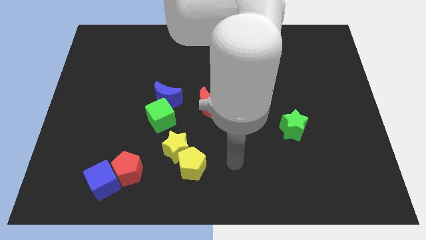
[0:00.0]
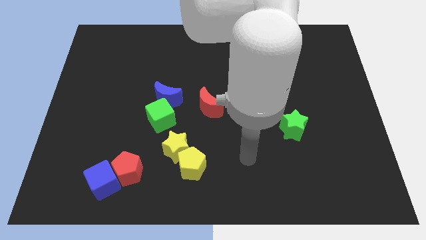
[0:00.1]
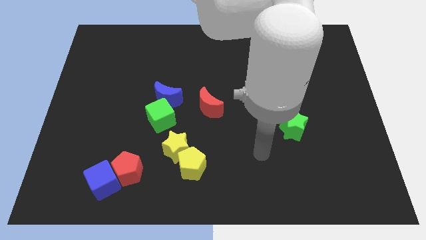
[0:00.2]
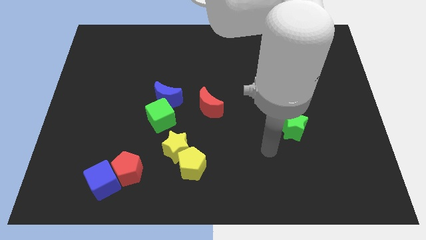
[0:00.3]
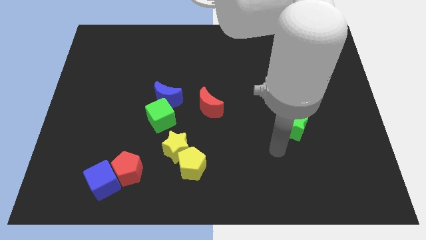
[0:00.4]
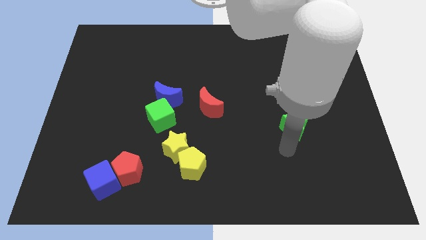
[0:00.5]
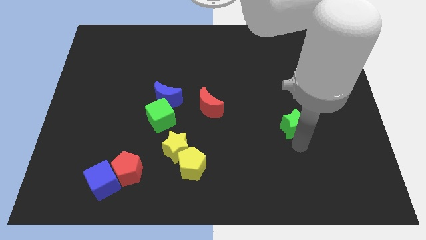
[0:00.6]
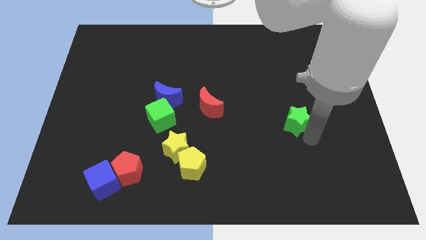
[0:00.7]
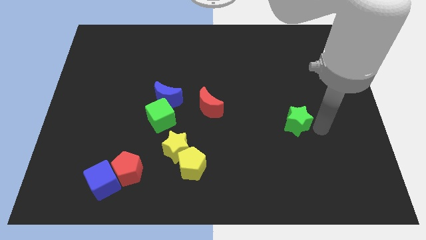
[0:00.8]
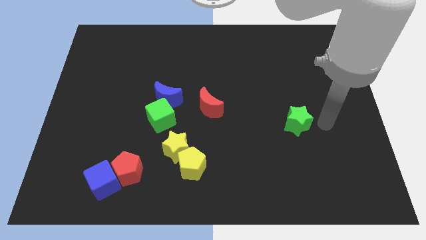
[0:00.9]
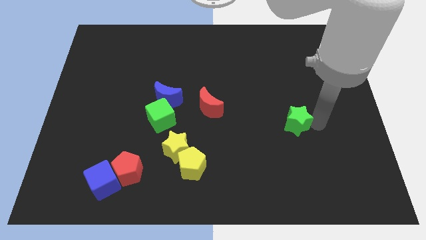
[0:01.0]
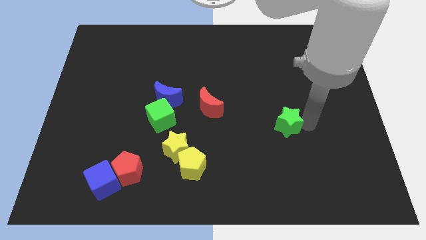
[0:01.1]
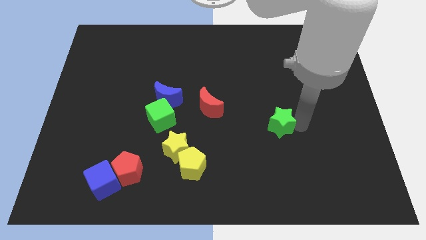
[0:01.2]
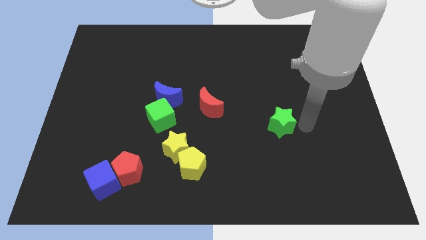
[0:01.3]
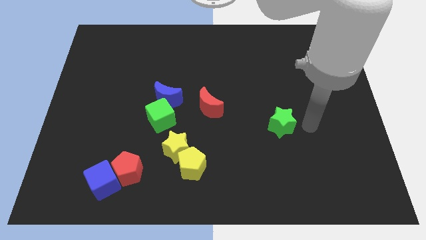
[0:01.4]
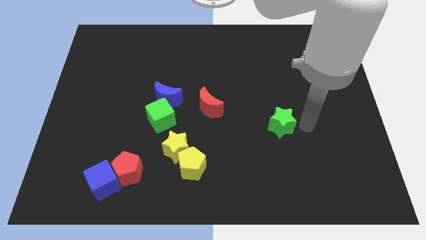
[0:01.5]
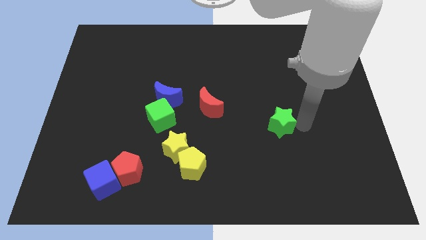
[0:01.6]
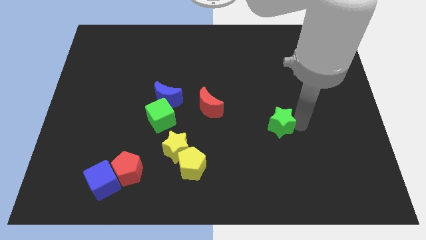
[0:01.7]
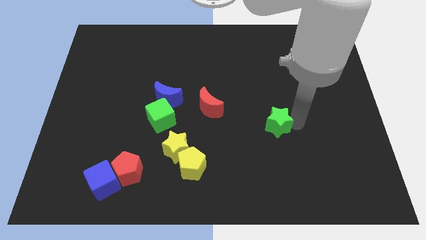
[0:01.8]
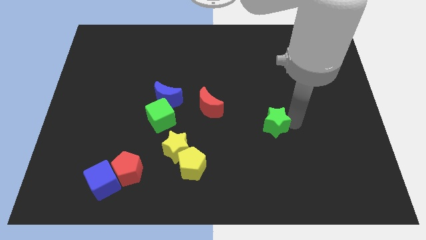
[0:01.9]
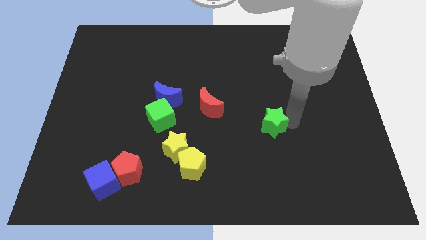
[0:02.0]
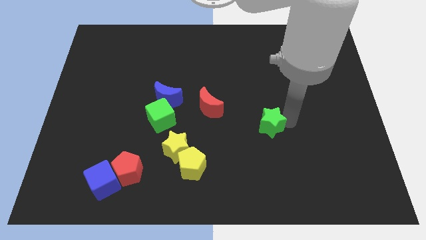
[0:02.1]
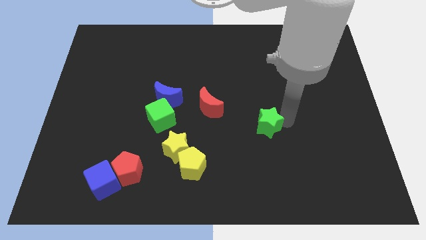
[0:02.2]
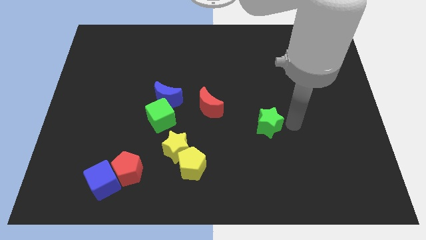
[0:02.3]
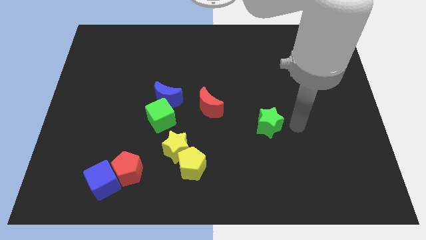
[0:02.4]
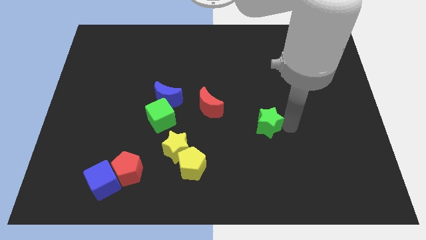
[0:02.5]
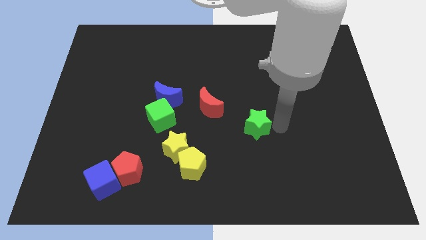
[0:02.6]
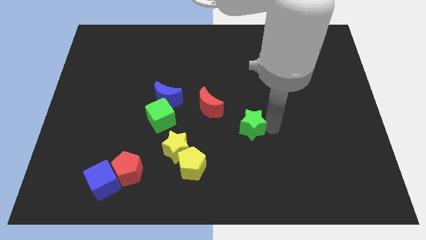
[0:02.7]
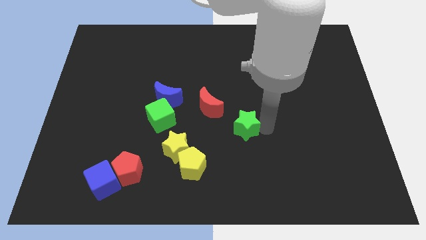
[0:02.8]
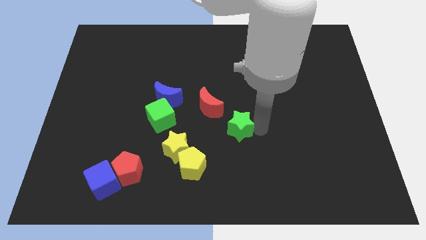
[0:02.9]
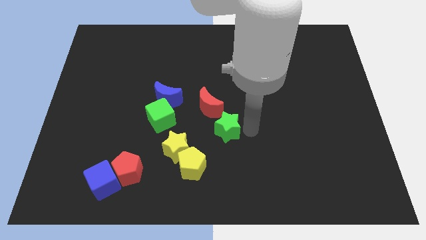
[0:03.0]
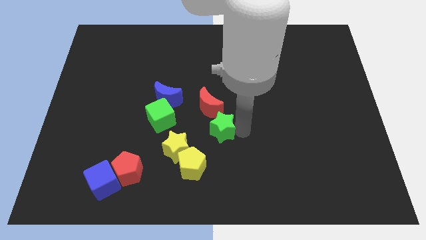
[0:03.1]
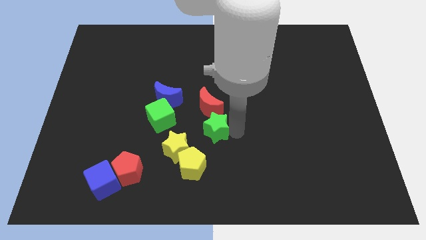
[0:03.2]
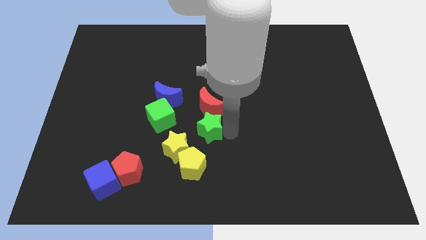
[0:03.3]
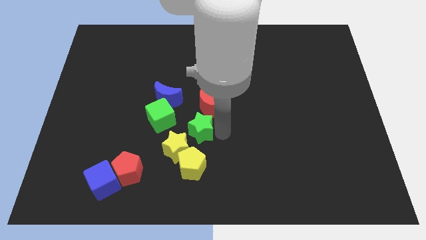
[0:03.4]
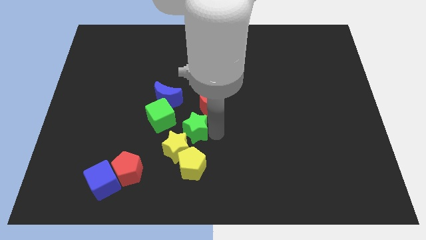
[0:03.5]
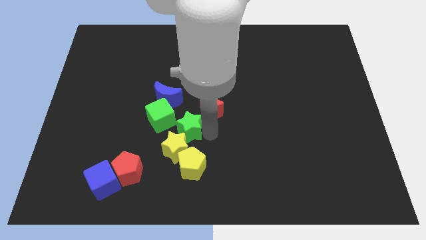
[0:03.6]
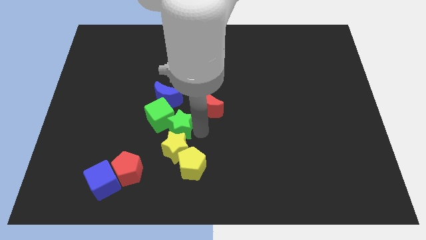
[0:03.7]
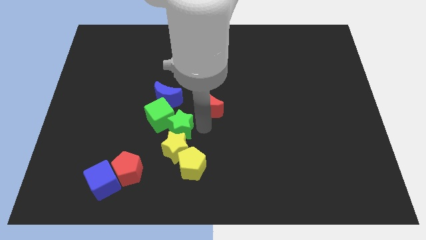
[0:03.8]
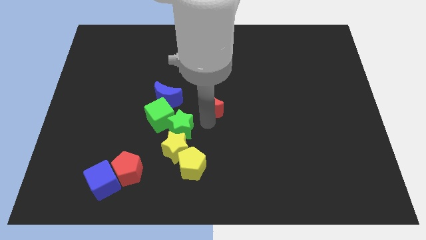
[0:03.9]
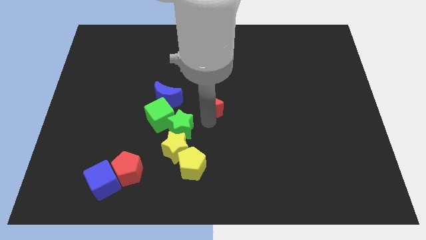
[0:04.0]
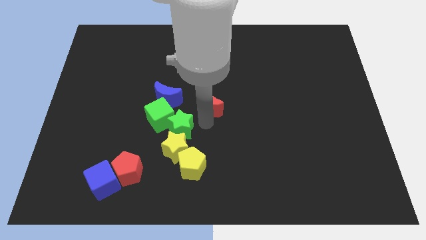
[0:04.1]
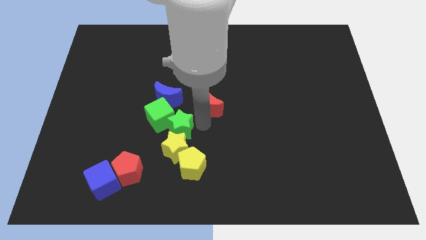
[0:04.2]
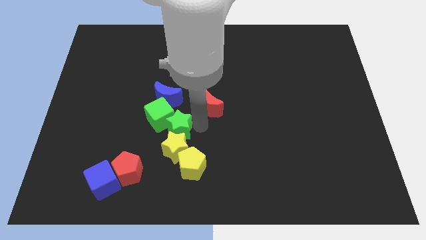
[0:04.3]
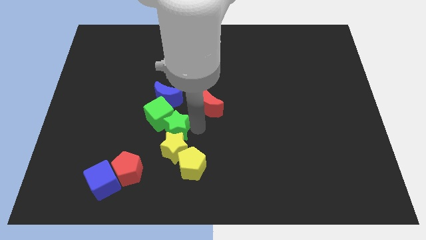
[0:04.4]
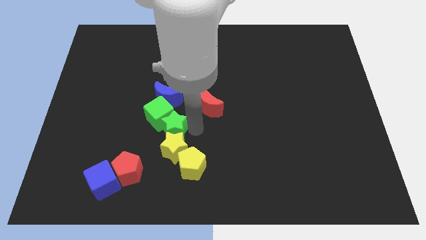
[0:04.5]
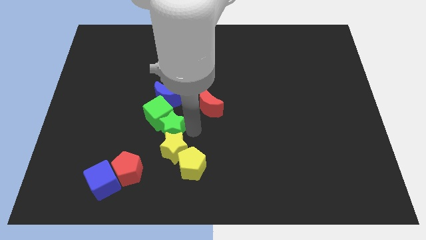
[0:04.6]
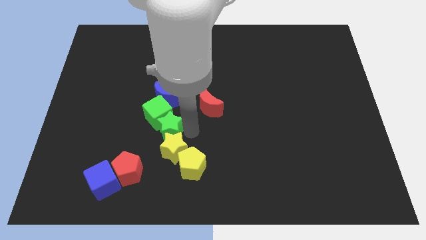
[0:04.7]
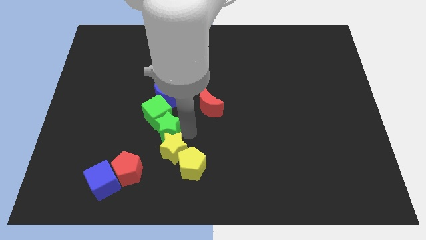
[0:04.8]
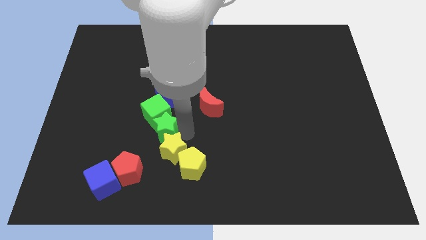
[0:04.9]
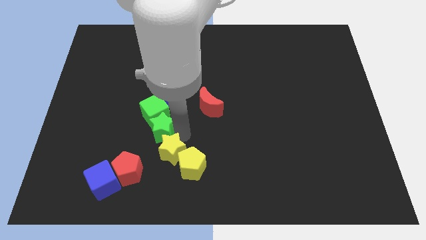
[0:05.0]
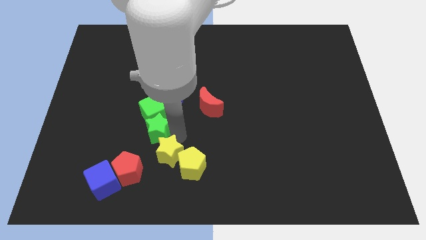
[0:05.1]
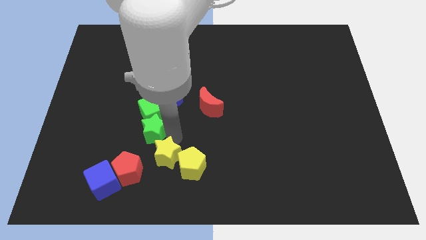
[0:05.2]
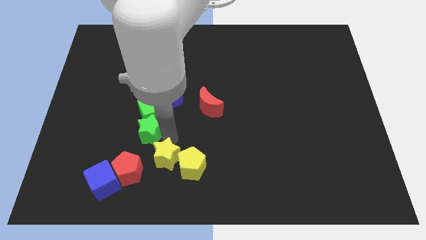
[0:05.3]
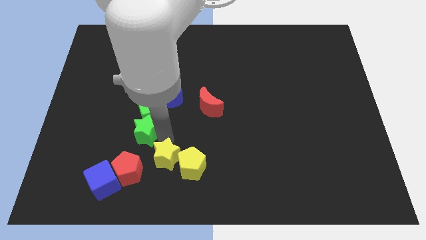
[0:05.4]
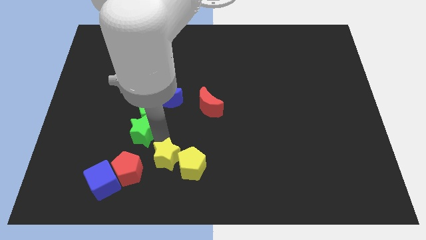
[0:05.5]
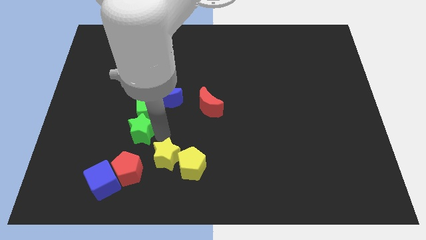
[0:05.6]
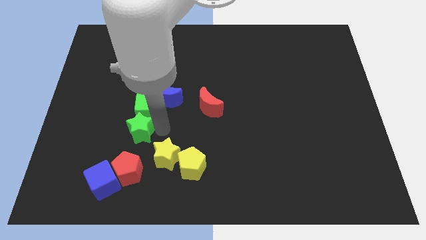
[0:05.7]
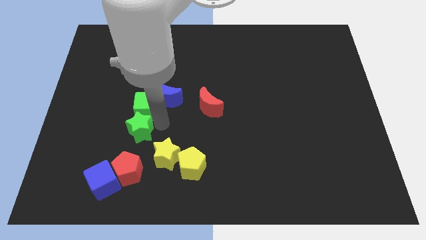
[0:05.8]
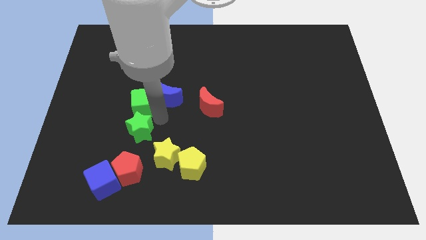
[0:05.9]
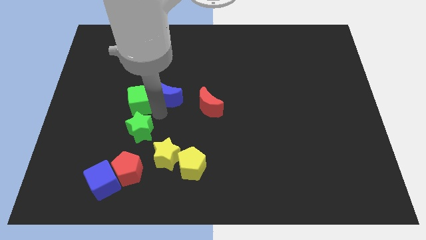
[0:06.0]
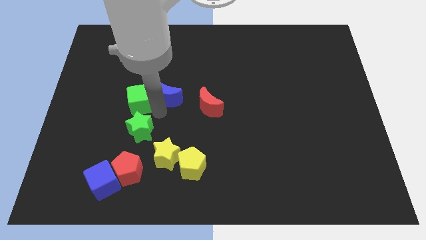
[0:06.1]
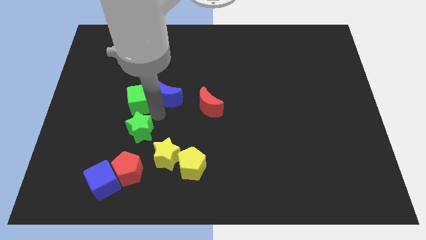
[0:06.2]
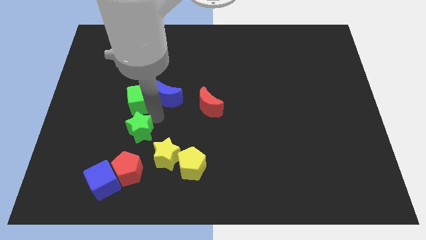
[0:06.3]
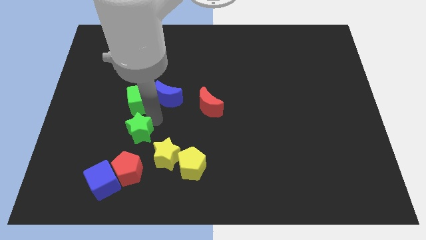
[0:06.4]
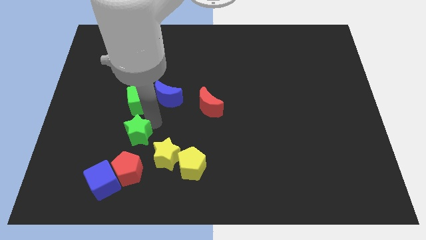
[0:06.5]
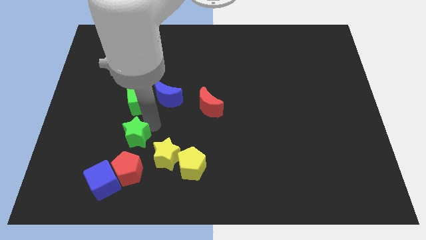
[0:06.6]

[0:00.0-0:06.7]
push the green star to the left side of the yellow star

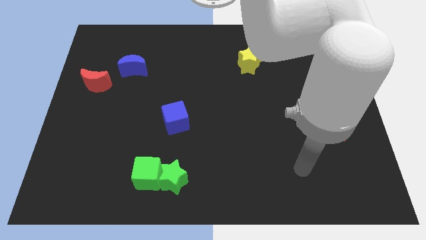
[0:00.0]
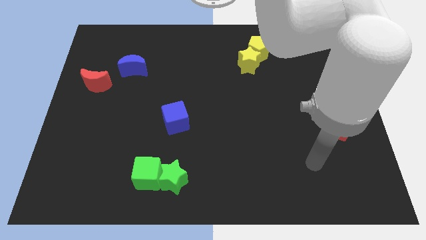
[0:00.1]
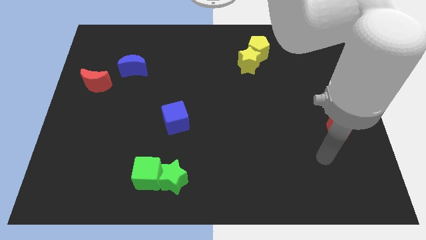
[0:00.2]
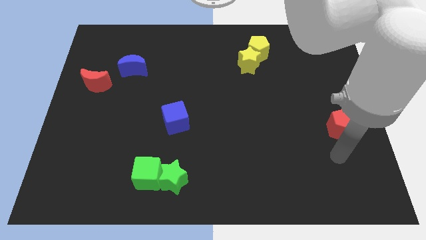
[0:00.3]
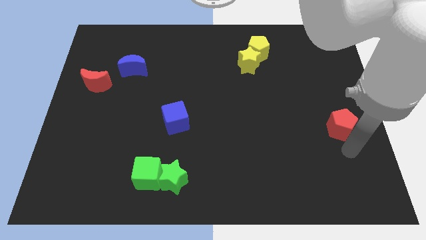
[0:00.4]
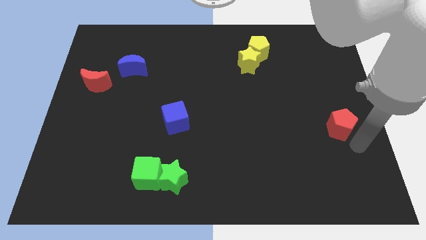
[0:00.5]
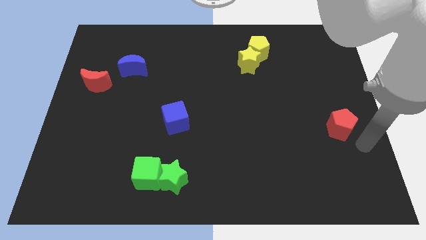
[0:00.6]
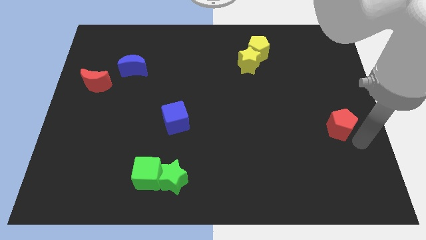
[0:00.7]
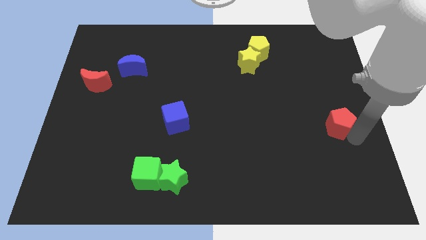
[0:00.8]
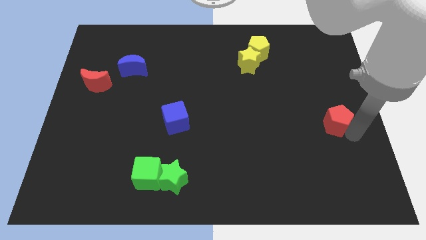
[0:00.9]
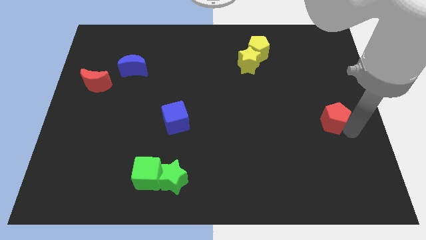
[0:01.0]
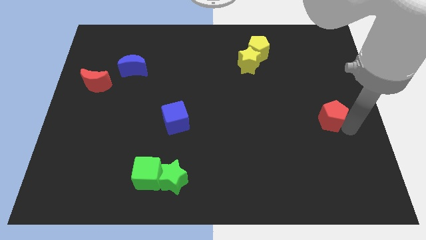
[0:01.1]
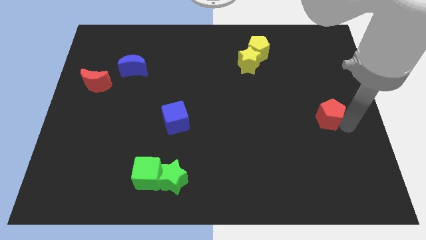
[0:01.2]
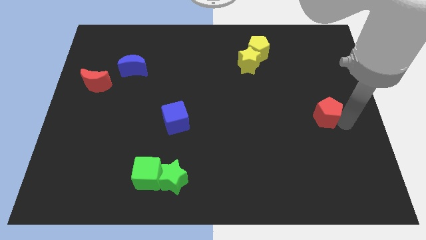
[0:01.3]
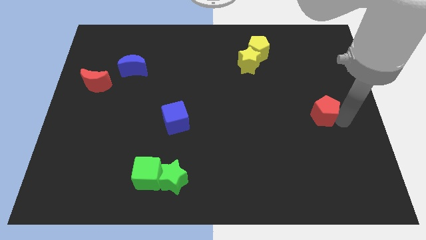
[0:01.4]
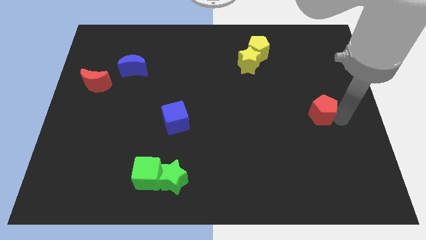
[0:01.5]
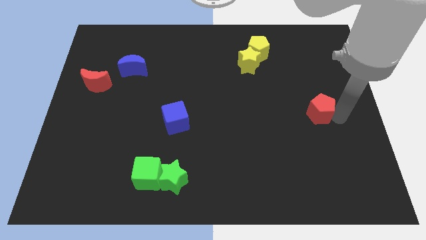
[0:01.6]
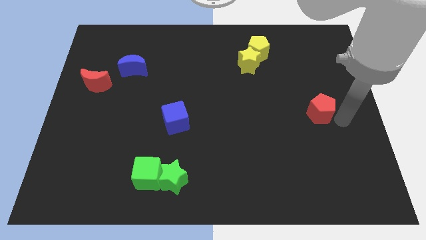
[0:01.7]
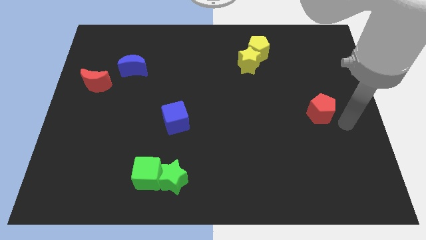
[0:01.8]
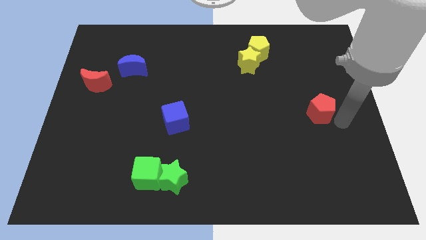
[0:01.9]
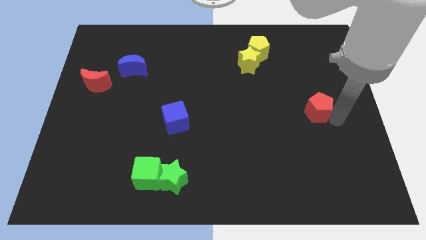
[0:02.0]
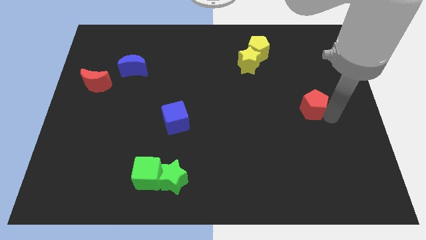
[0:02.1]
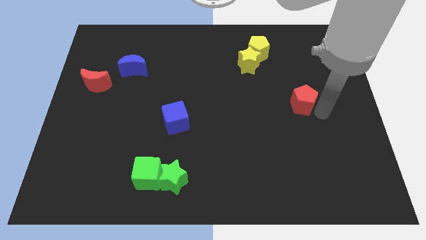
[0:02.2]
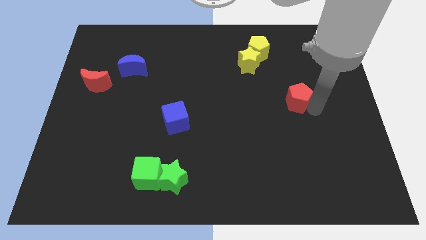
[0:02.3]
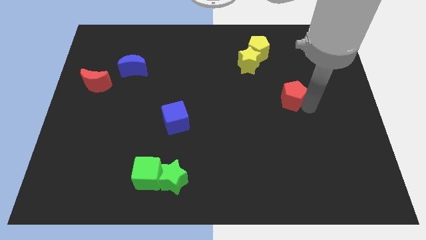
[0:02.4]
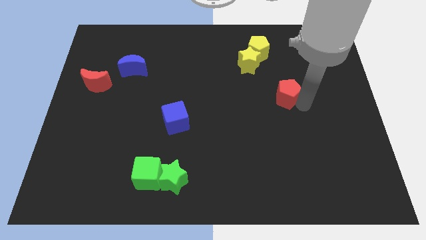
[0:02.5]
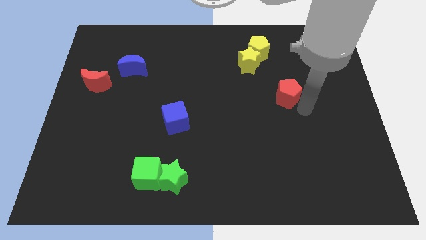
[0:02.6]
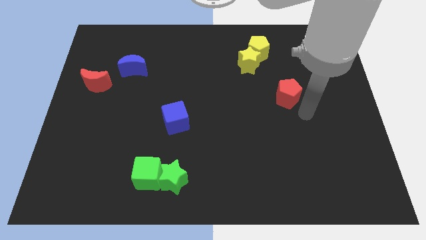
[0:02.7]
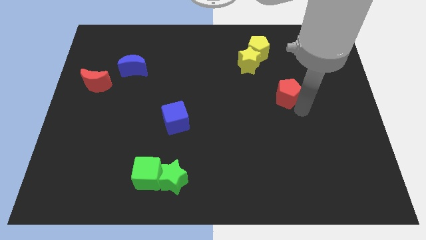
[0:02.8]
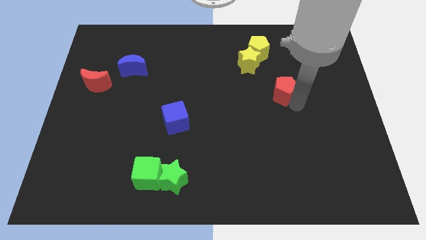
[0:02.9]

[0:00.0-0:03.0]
slide the red pentagon to the bottom right side of the yellow star
